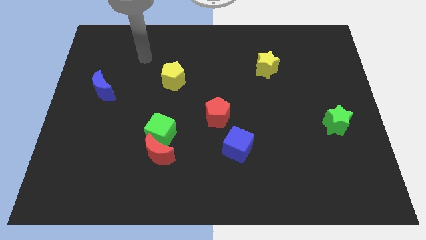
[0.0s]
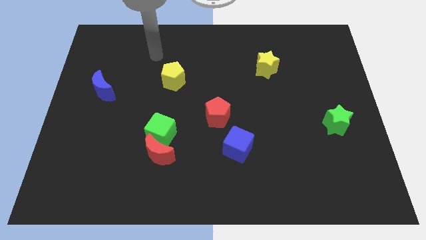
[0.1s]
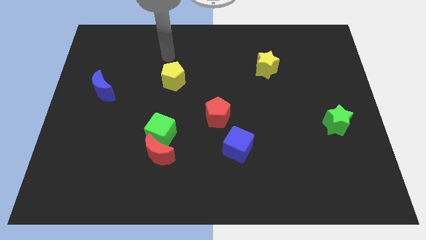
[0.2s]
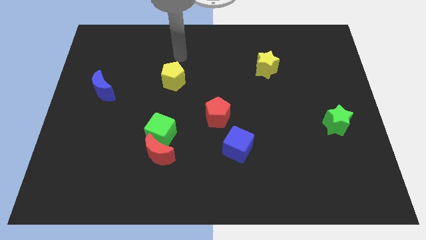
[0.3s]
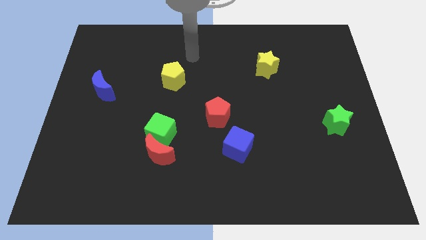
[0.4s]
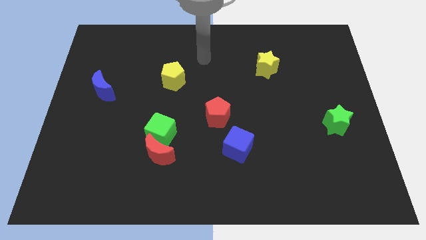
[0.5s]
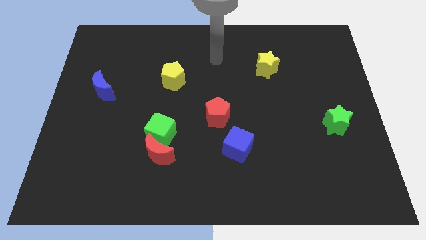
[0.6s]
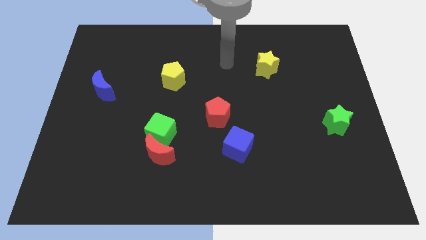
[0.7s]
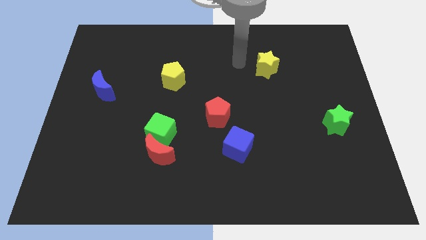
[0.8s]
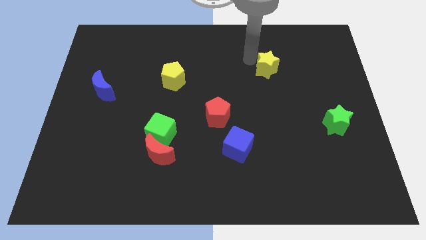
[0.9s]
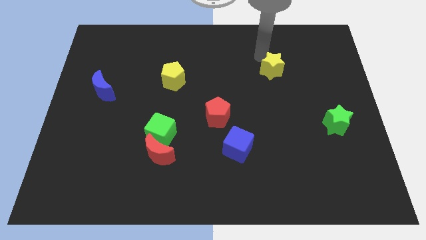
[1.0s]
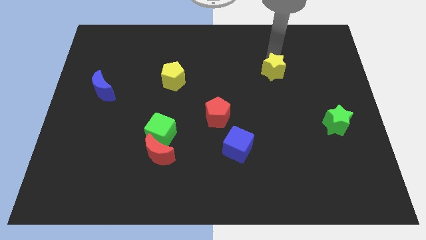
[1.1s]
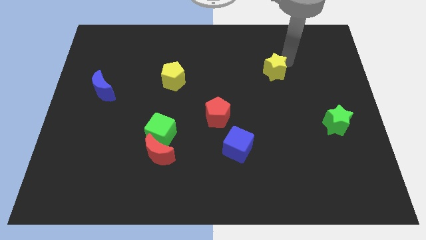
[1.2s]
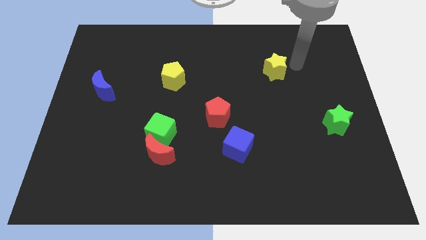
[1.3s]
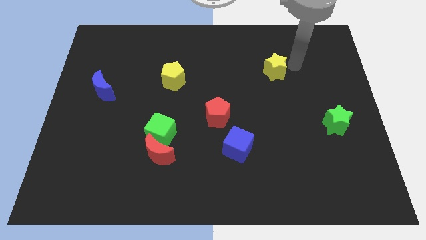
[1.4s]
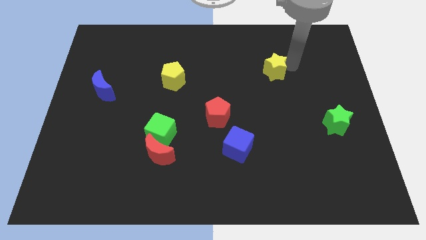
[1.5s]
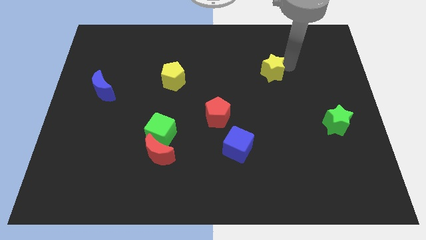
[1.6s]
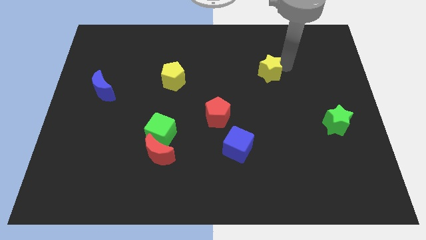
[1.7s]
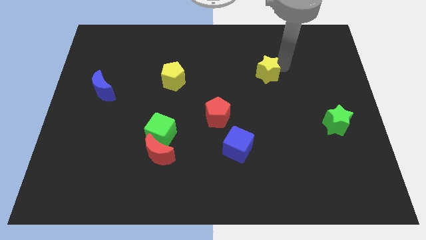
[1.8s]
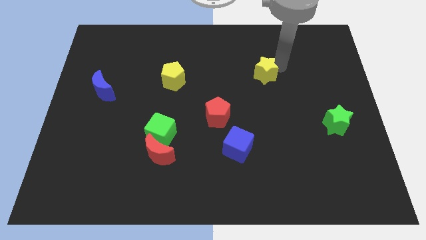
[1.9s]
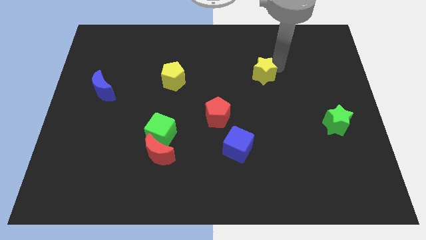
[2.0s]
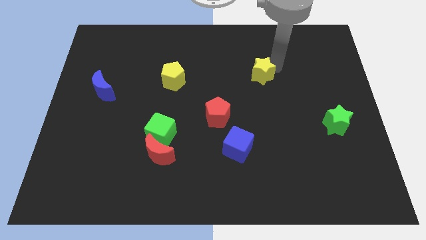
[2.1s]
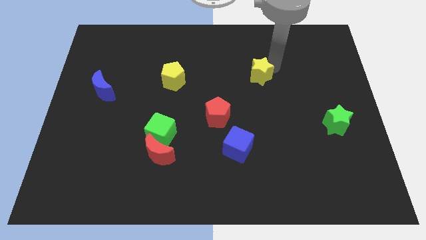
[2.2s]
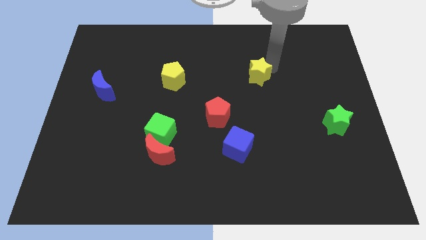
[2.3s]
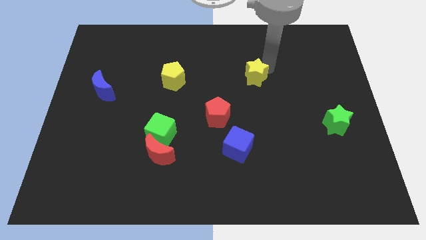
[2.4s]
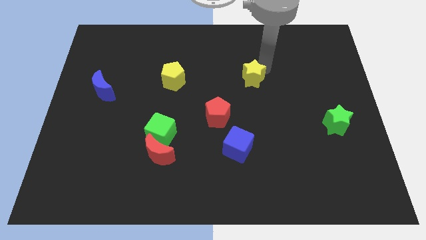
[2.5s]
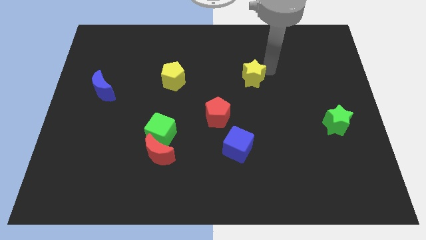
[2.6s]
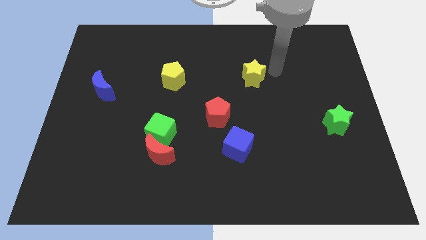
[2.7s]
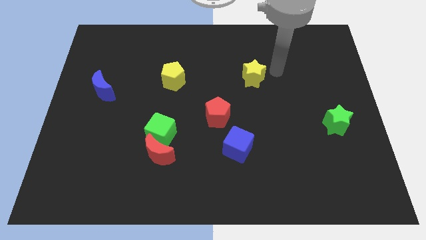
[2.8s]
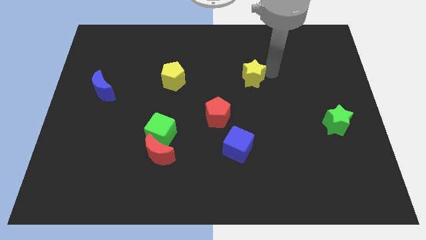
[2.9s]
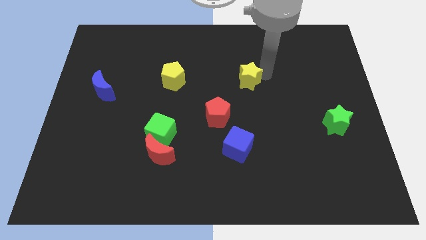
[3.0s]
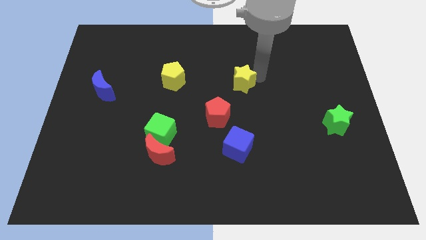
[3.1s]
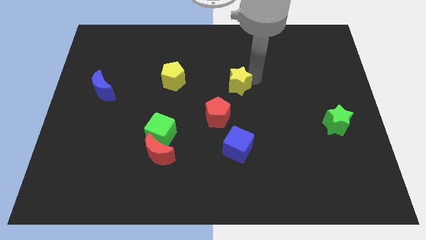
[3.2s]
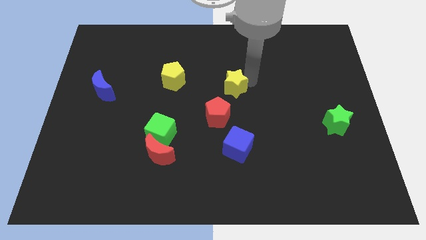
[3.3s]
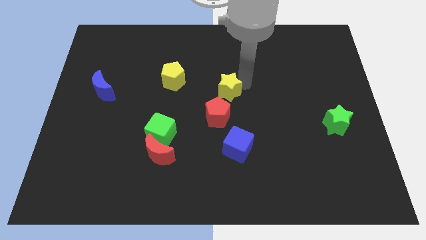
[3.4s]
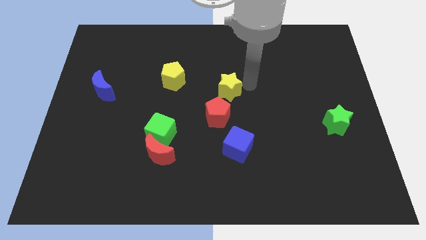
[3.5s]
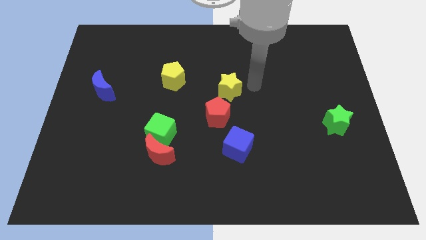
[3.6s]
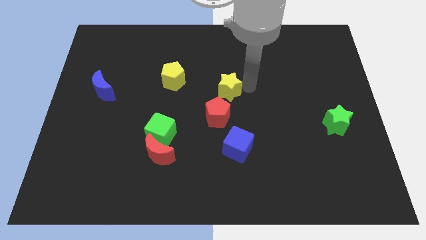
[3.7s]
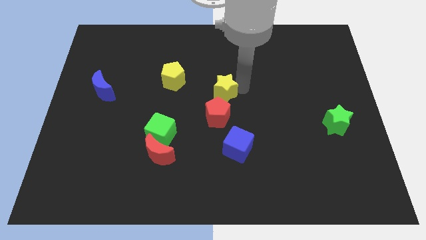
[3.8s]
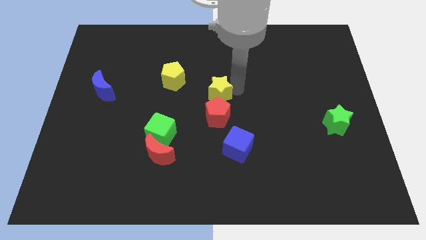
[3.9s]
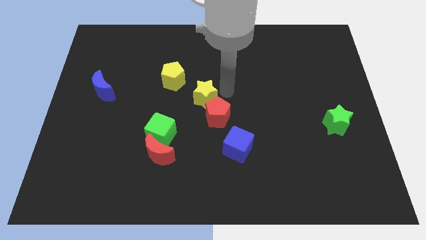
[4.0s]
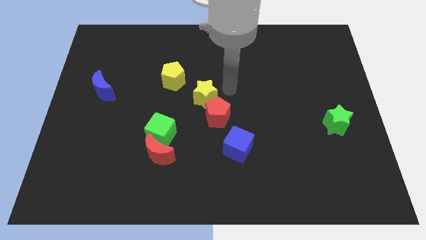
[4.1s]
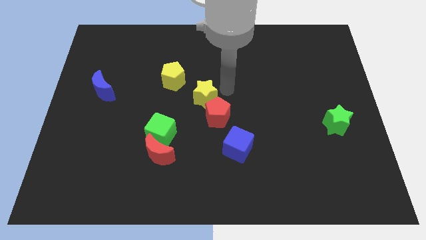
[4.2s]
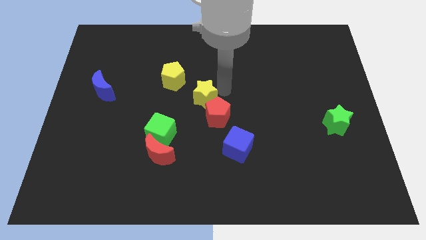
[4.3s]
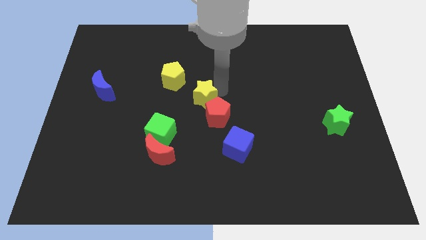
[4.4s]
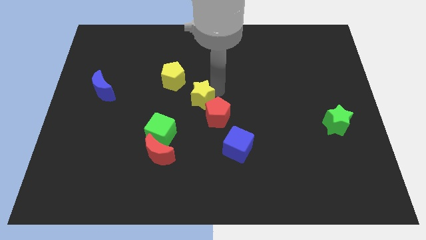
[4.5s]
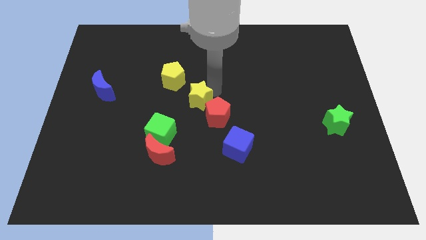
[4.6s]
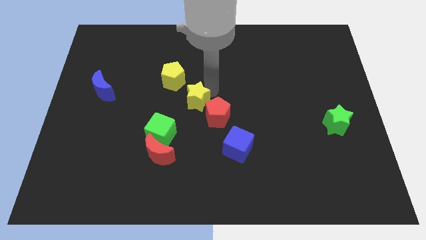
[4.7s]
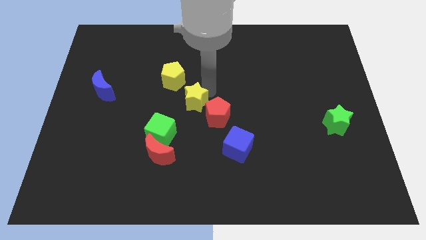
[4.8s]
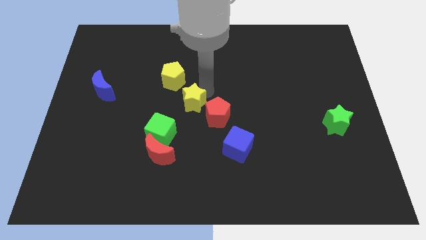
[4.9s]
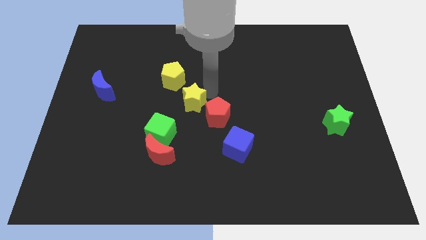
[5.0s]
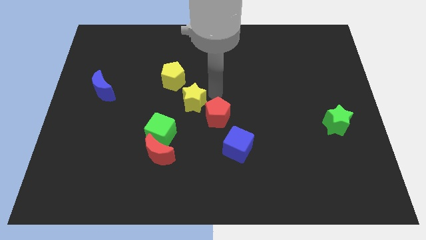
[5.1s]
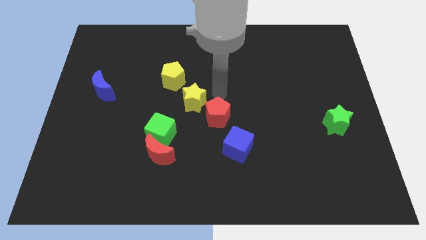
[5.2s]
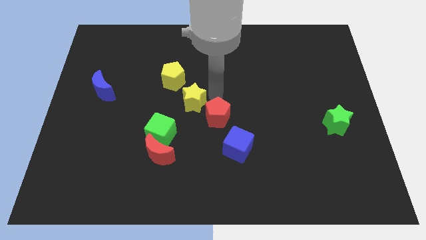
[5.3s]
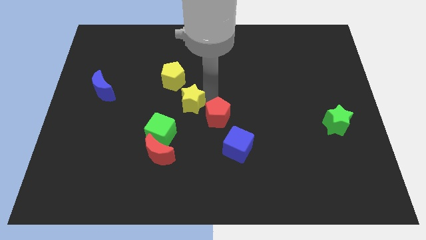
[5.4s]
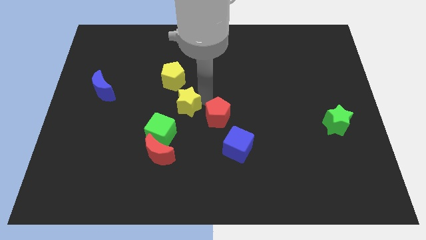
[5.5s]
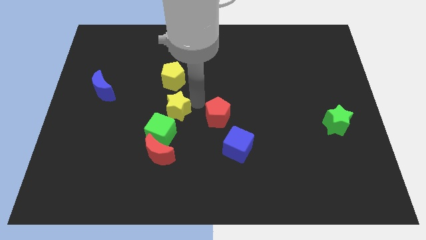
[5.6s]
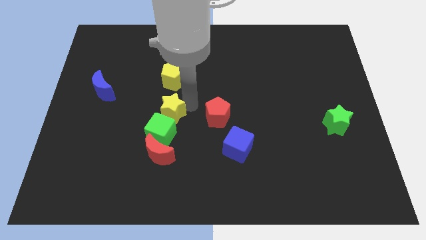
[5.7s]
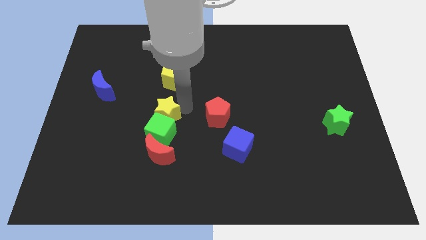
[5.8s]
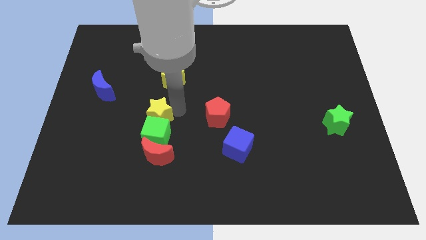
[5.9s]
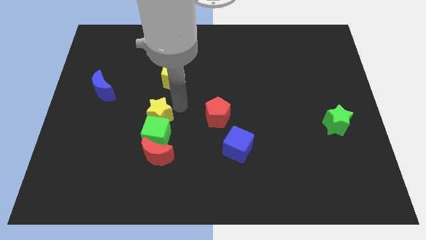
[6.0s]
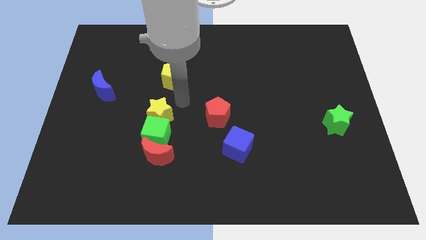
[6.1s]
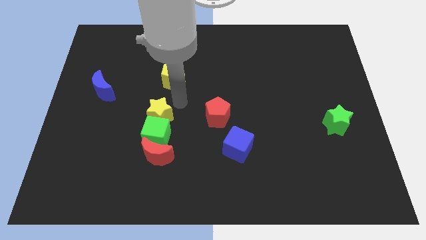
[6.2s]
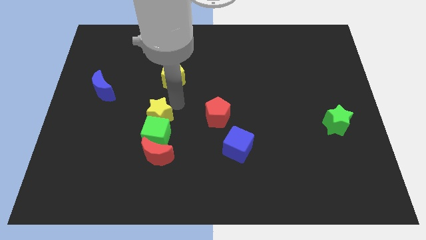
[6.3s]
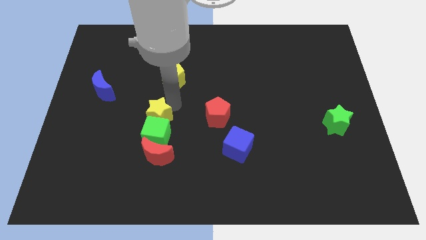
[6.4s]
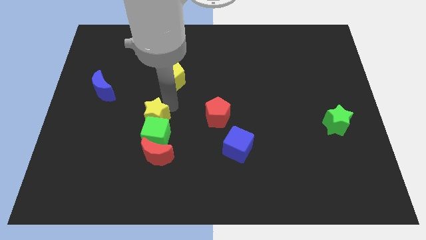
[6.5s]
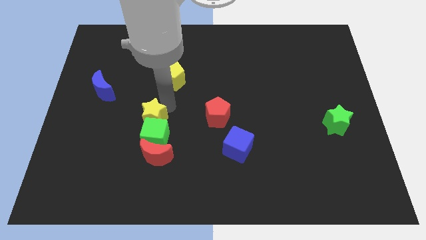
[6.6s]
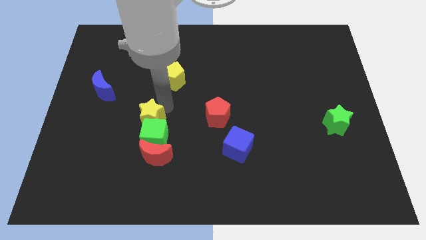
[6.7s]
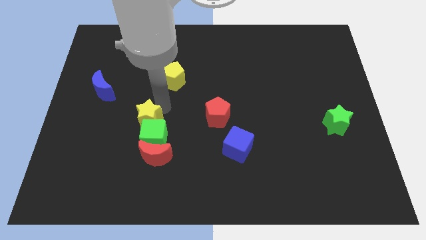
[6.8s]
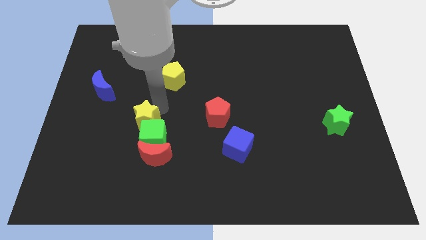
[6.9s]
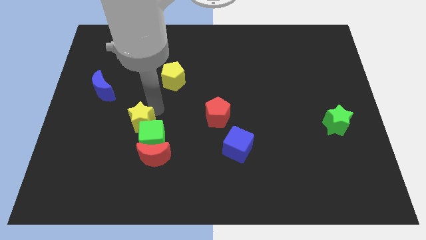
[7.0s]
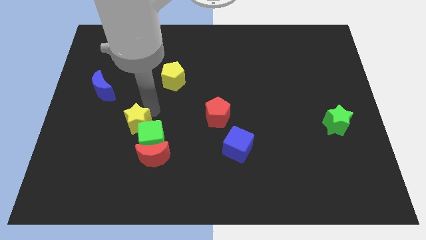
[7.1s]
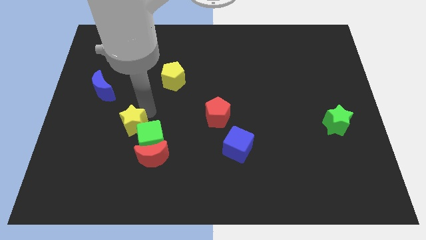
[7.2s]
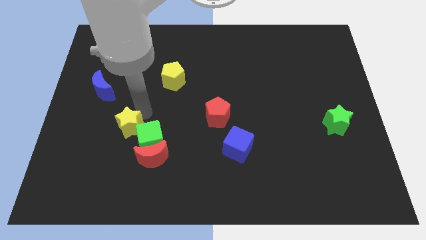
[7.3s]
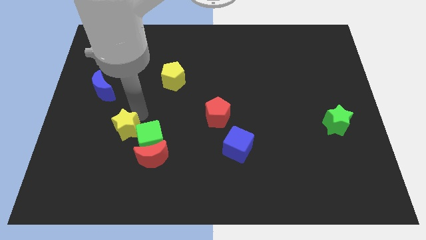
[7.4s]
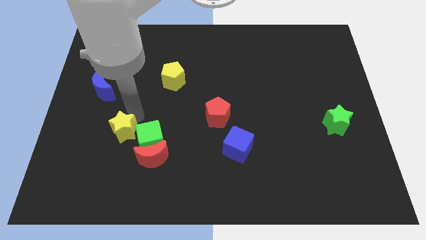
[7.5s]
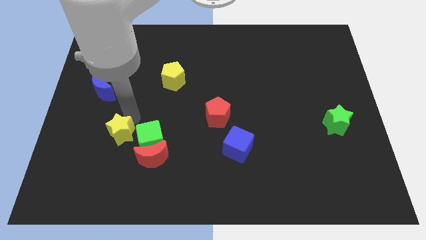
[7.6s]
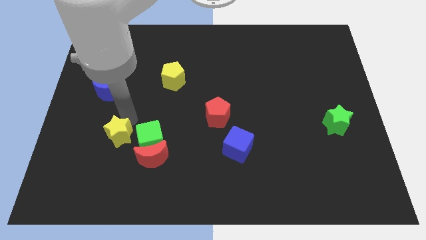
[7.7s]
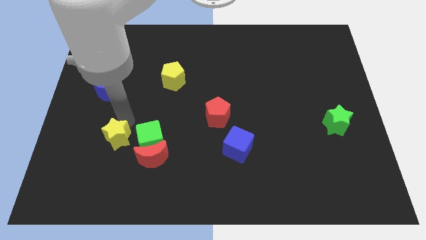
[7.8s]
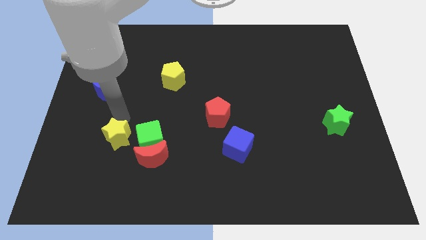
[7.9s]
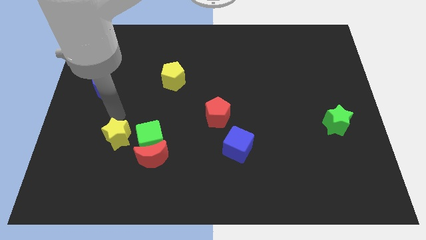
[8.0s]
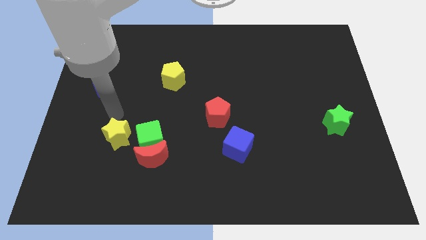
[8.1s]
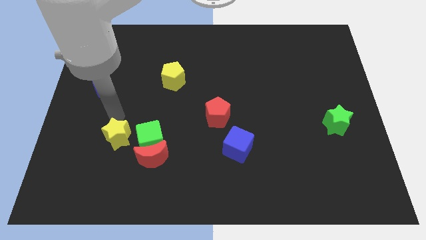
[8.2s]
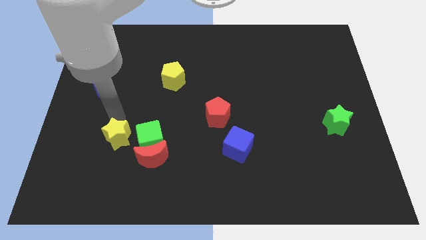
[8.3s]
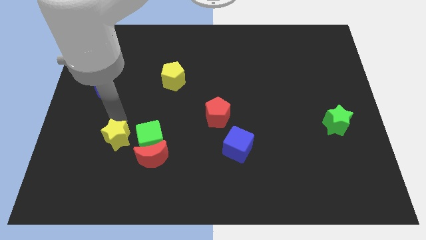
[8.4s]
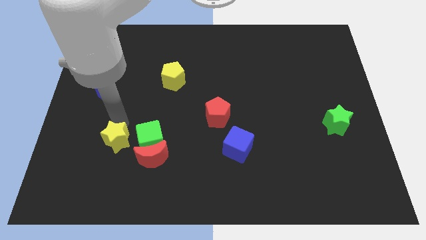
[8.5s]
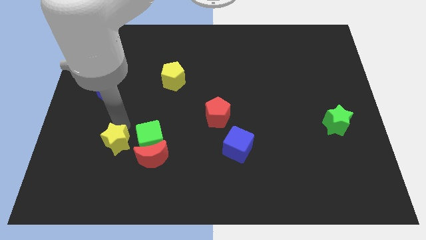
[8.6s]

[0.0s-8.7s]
push the yellow star to the bottom left side of the green cube
